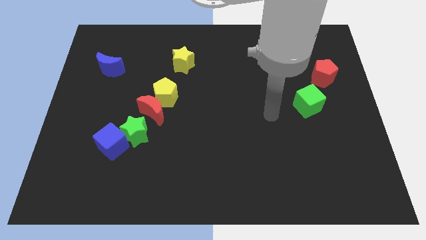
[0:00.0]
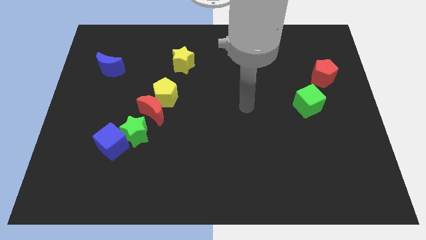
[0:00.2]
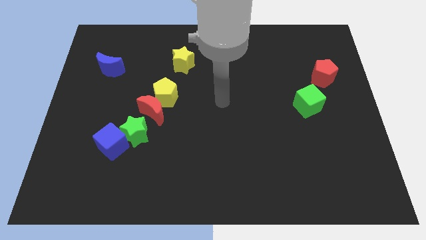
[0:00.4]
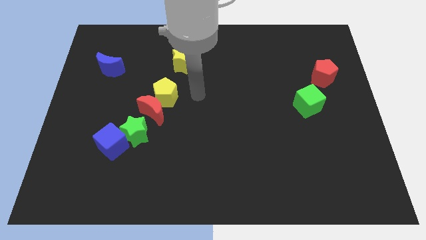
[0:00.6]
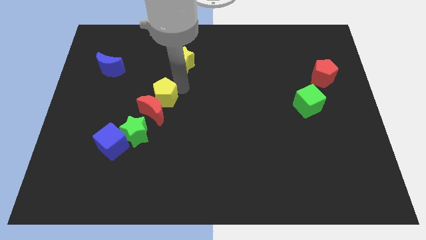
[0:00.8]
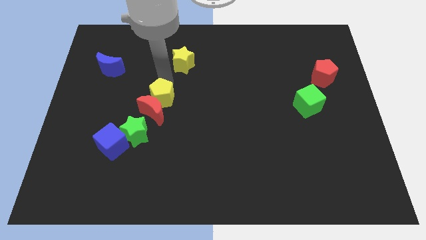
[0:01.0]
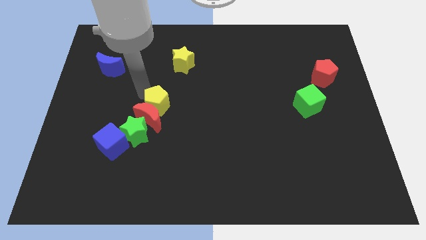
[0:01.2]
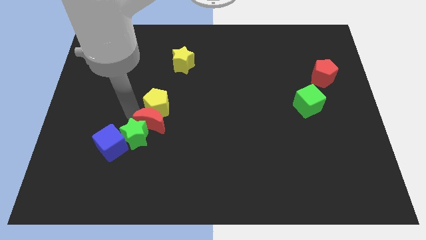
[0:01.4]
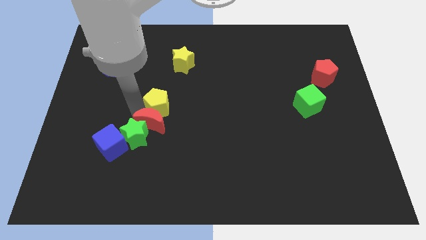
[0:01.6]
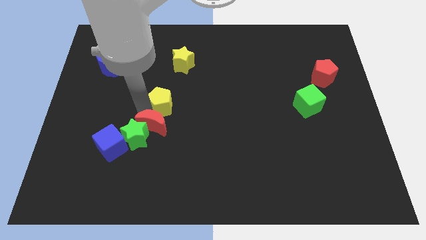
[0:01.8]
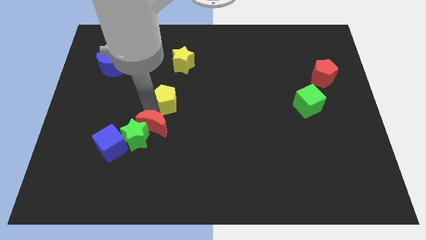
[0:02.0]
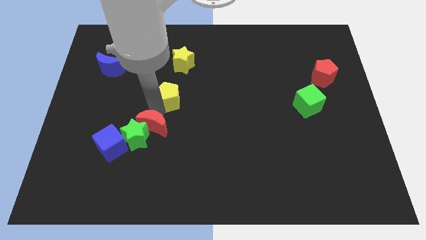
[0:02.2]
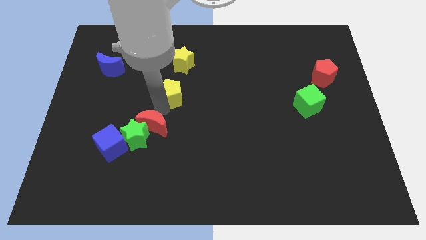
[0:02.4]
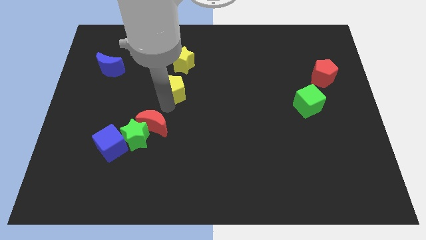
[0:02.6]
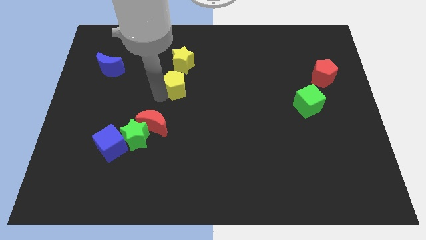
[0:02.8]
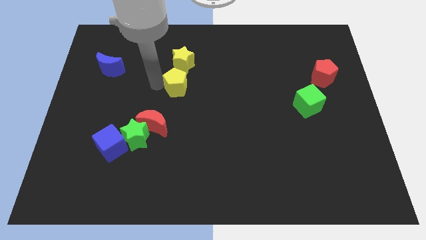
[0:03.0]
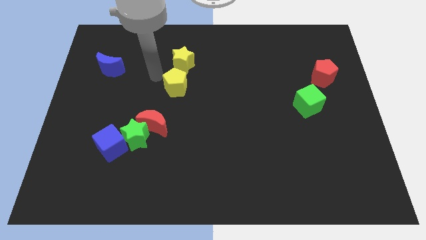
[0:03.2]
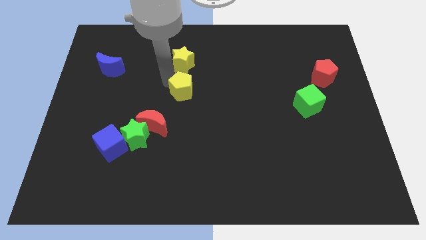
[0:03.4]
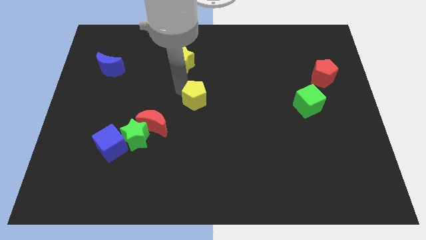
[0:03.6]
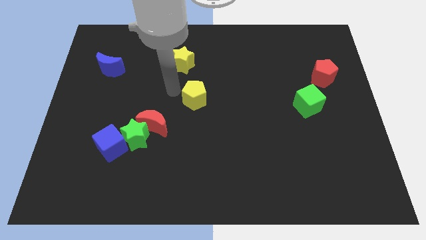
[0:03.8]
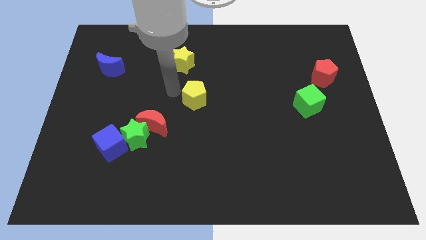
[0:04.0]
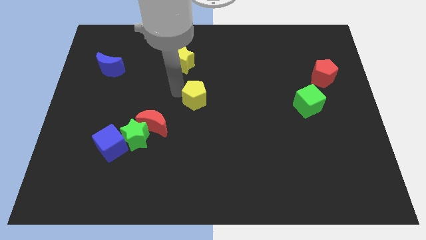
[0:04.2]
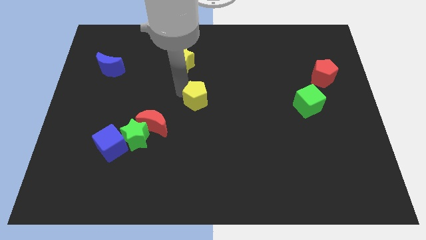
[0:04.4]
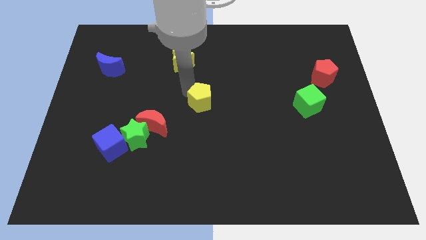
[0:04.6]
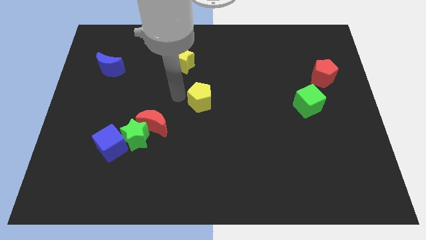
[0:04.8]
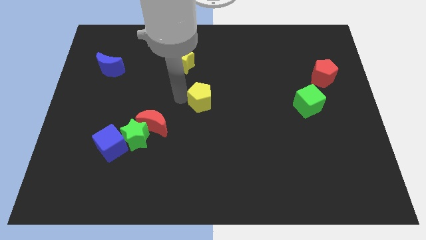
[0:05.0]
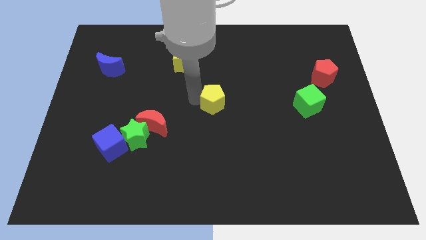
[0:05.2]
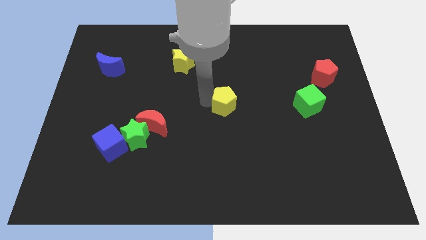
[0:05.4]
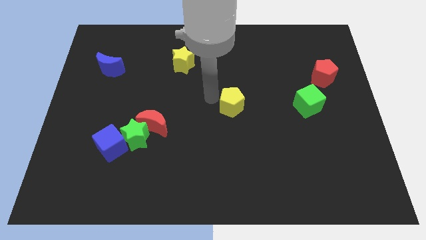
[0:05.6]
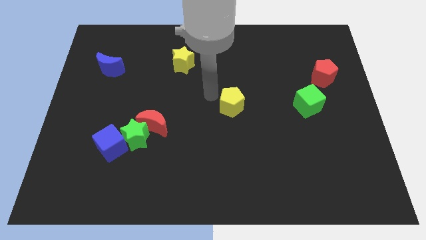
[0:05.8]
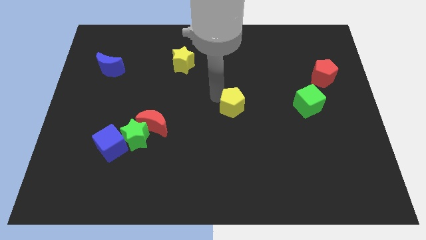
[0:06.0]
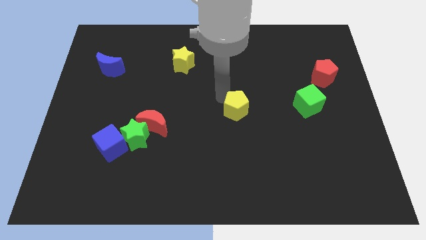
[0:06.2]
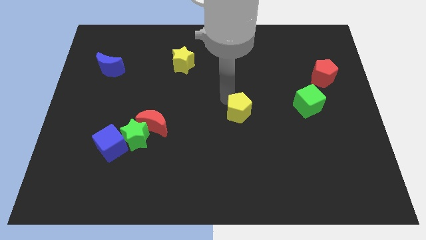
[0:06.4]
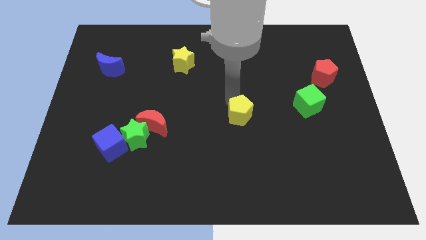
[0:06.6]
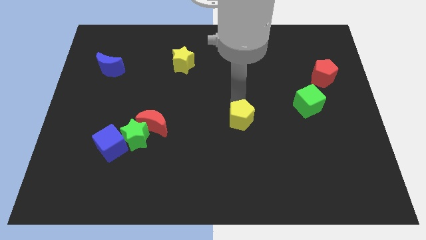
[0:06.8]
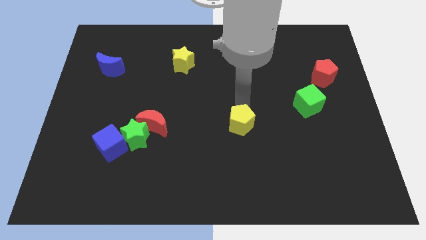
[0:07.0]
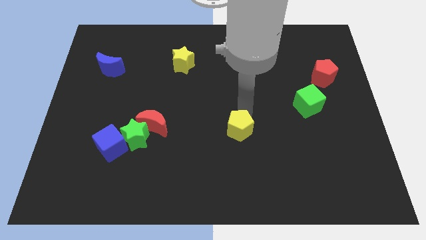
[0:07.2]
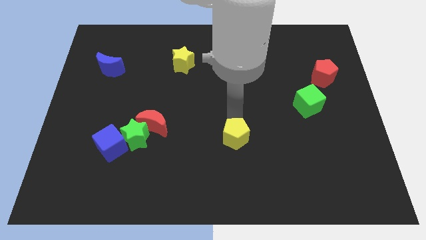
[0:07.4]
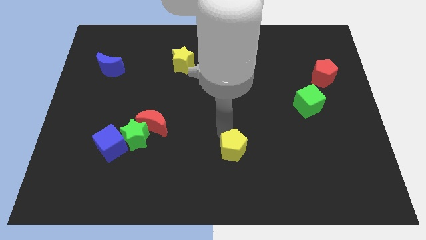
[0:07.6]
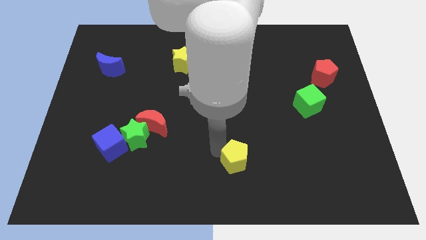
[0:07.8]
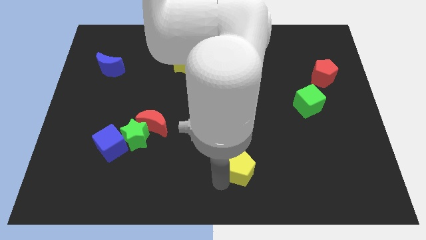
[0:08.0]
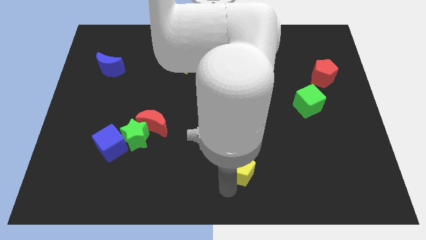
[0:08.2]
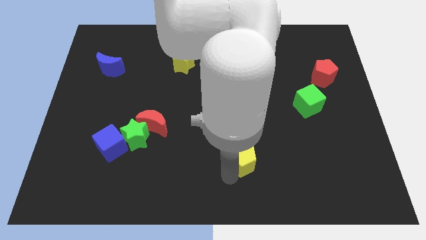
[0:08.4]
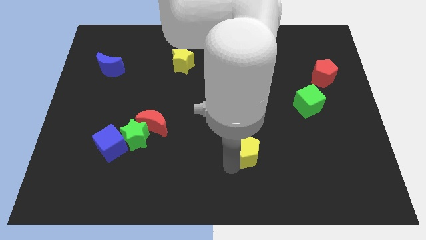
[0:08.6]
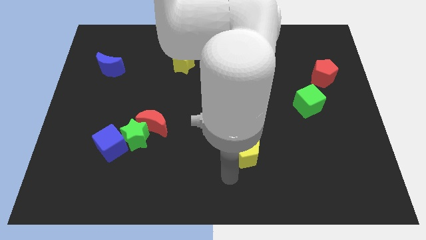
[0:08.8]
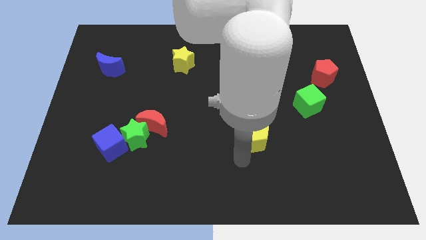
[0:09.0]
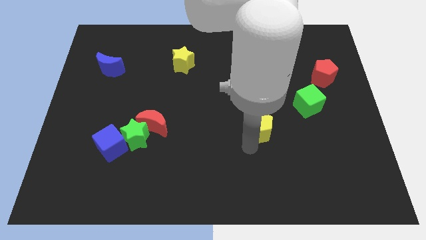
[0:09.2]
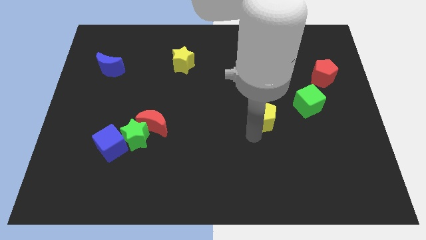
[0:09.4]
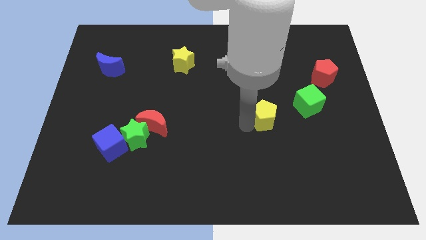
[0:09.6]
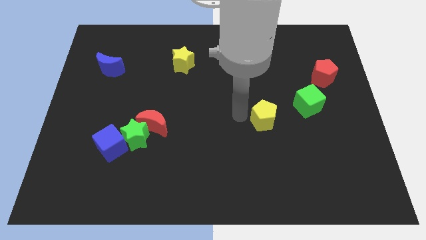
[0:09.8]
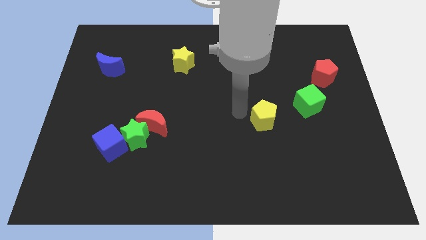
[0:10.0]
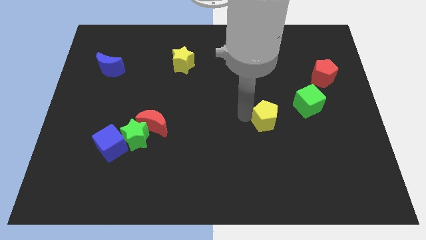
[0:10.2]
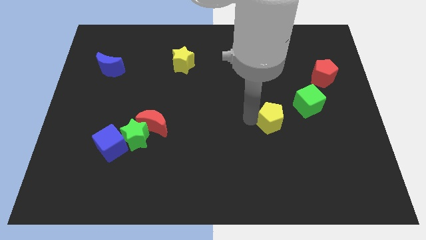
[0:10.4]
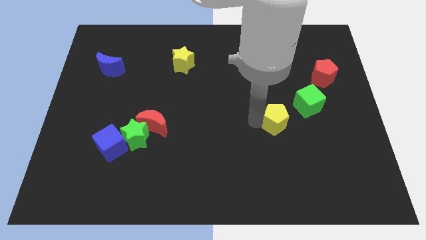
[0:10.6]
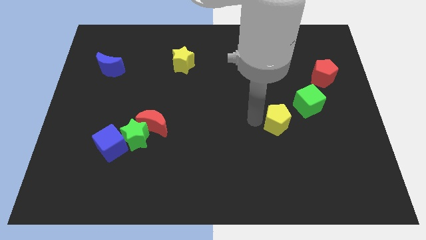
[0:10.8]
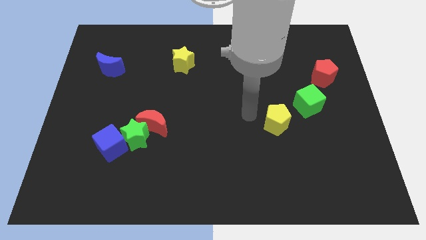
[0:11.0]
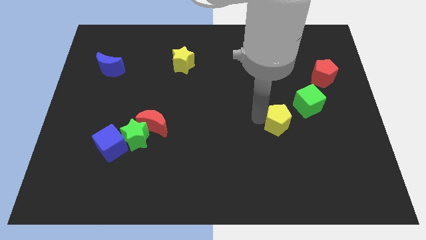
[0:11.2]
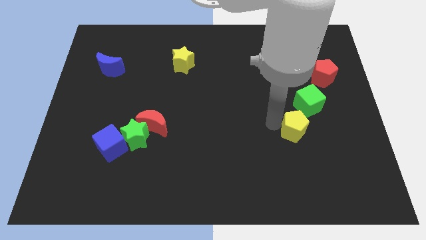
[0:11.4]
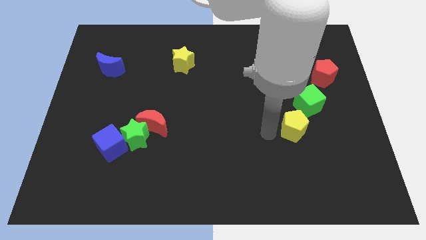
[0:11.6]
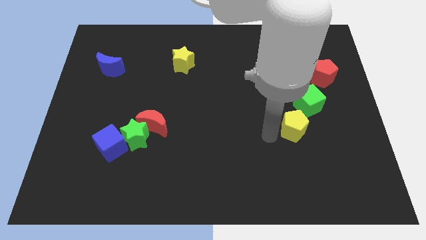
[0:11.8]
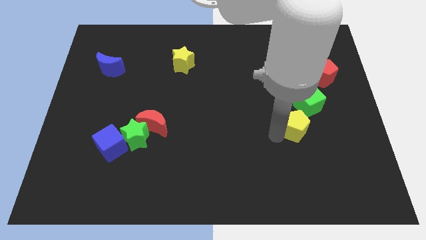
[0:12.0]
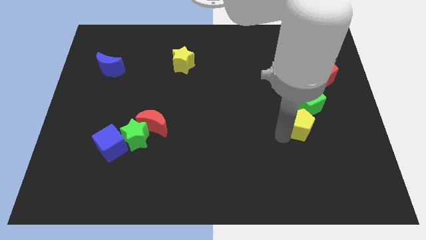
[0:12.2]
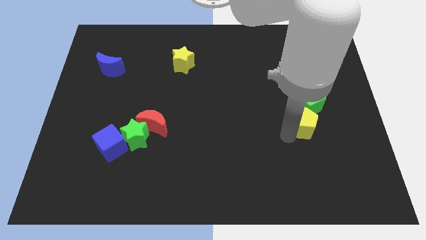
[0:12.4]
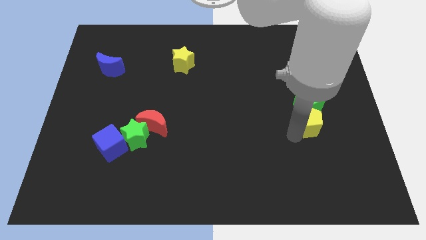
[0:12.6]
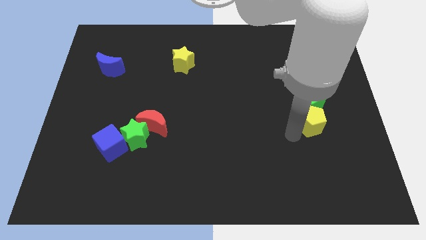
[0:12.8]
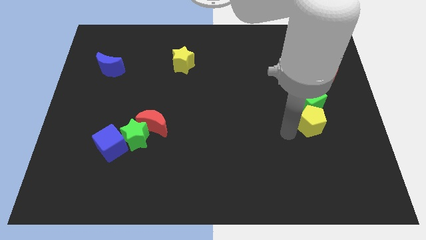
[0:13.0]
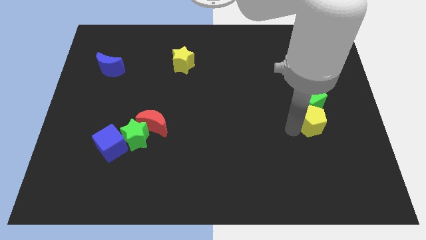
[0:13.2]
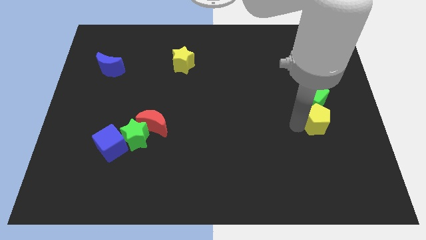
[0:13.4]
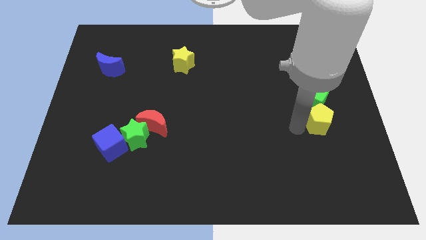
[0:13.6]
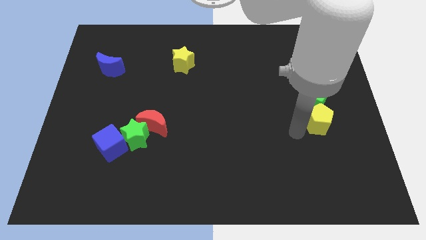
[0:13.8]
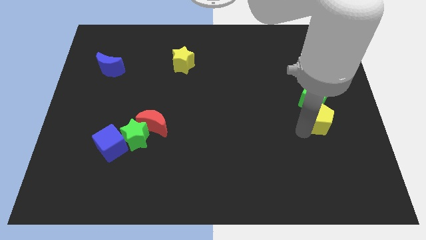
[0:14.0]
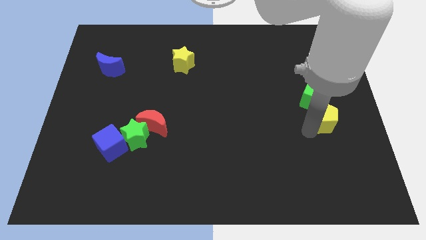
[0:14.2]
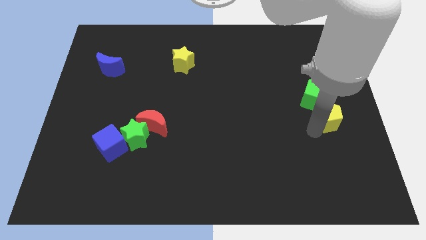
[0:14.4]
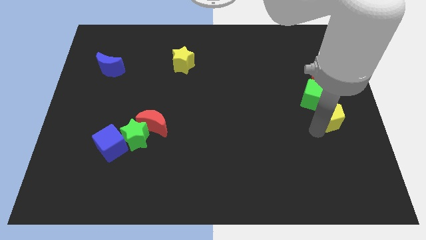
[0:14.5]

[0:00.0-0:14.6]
put the yellow pentagon to the center right

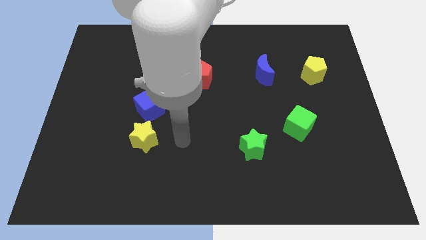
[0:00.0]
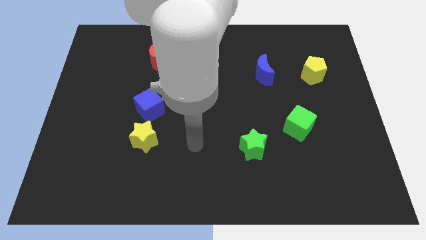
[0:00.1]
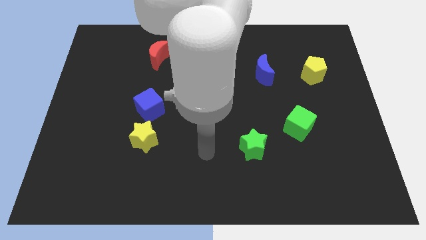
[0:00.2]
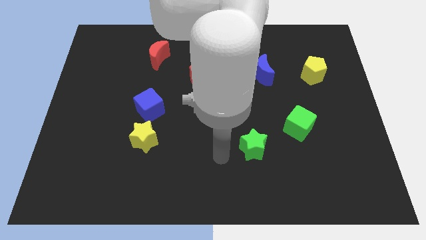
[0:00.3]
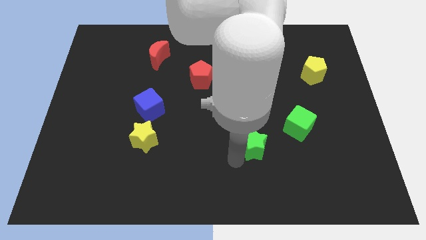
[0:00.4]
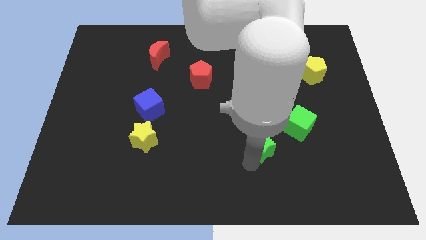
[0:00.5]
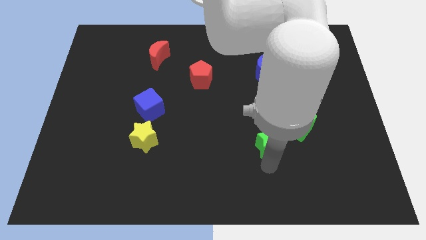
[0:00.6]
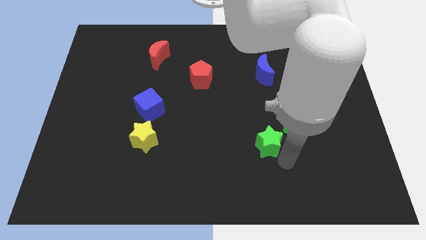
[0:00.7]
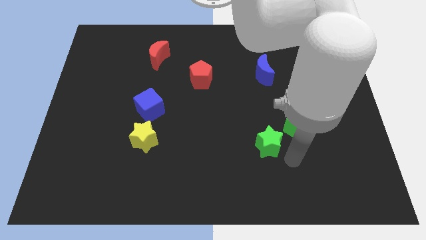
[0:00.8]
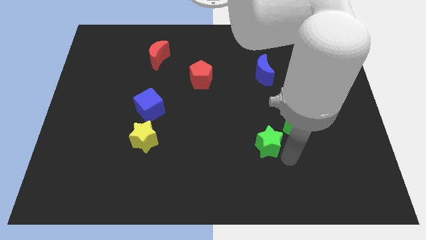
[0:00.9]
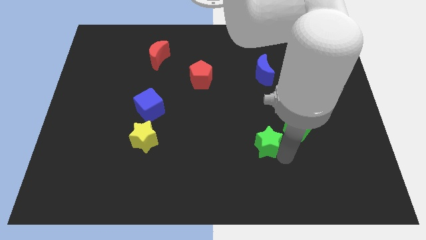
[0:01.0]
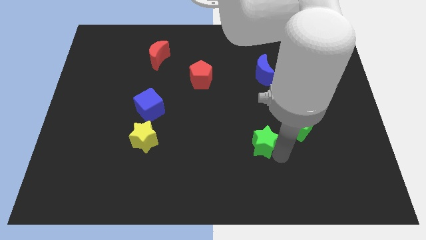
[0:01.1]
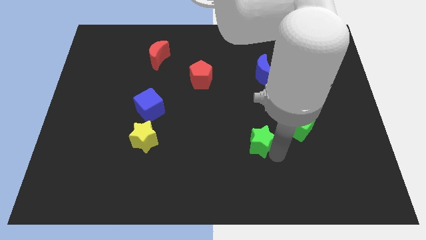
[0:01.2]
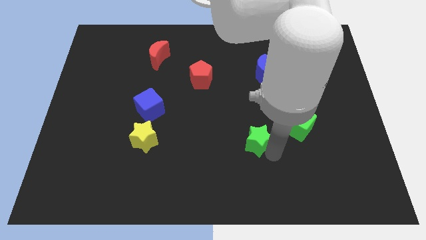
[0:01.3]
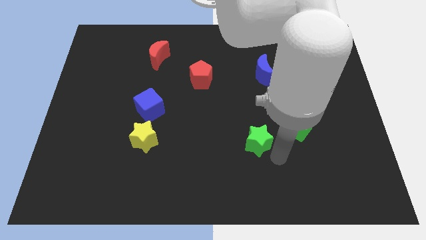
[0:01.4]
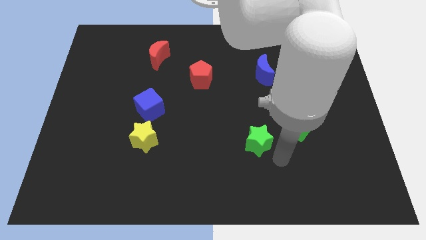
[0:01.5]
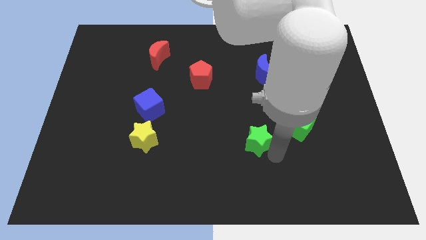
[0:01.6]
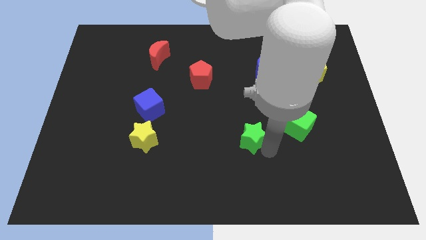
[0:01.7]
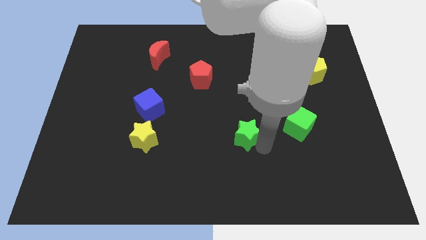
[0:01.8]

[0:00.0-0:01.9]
put the green star to the center of the board
